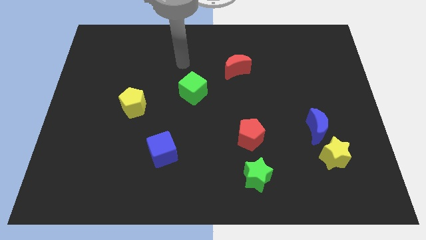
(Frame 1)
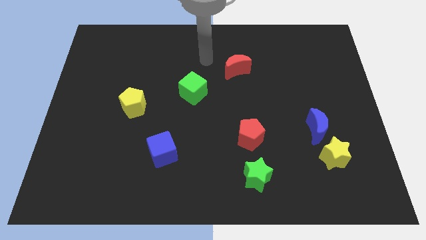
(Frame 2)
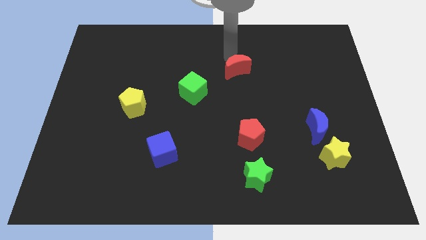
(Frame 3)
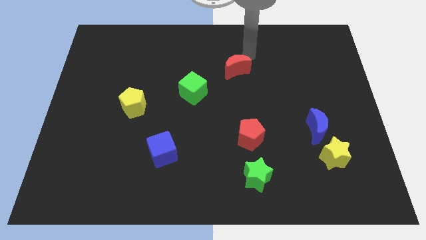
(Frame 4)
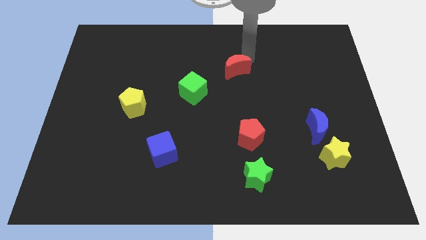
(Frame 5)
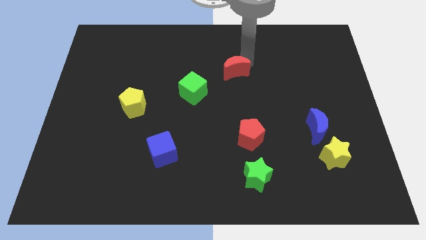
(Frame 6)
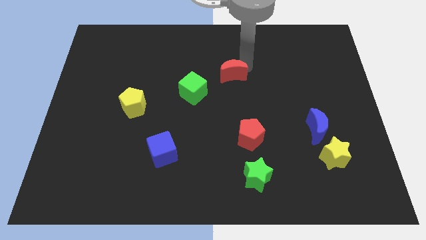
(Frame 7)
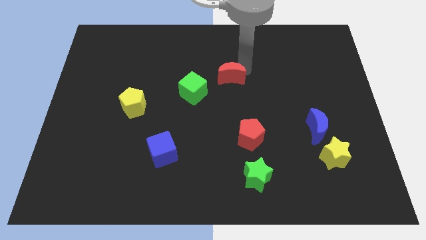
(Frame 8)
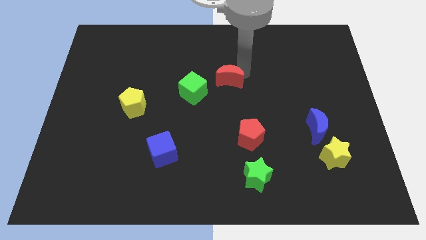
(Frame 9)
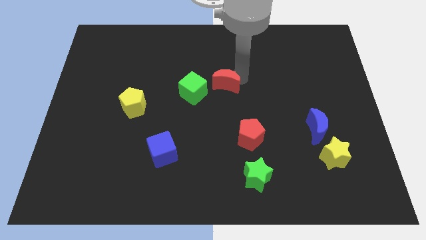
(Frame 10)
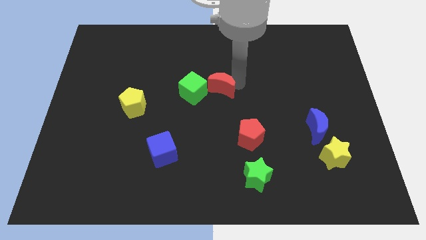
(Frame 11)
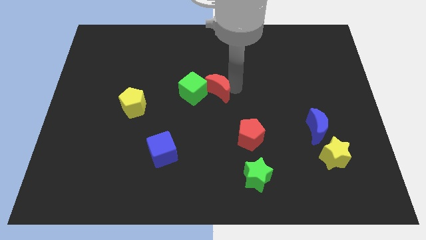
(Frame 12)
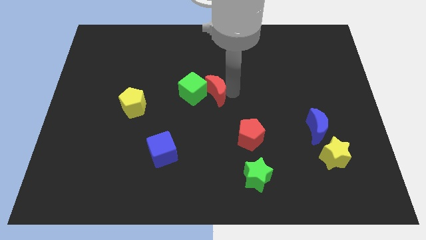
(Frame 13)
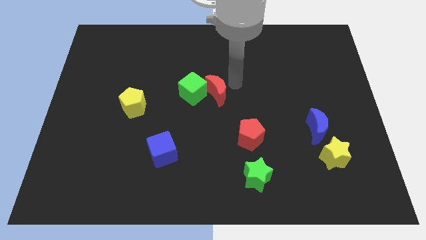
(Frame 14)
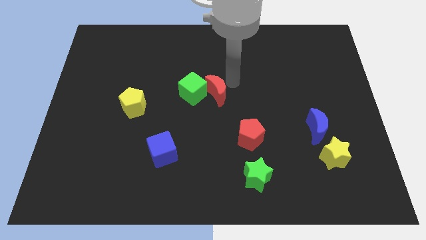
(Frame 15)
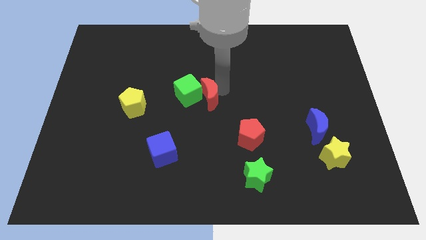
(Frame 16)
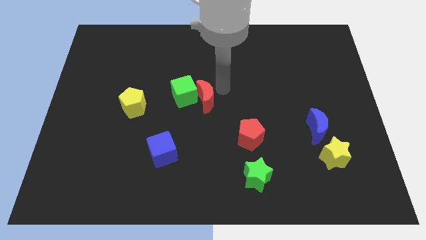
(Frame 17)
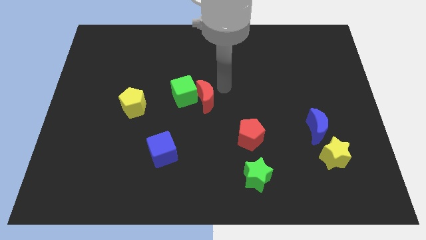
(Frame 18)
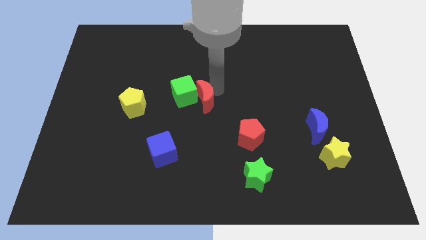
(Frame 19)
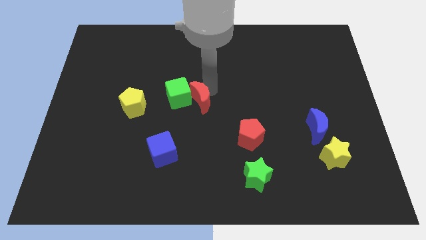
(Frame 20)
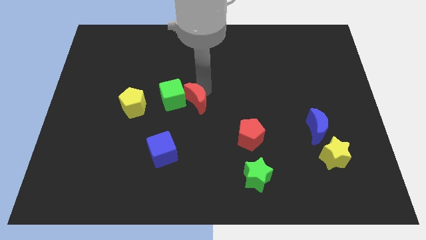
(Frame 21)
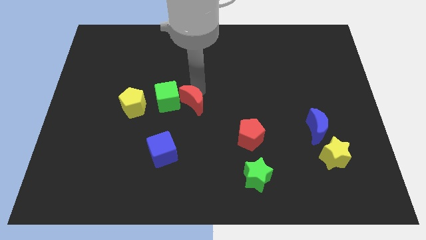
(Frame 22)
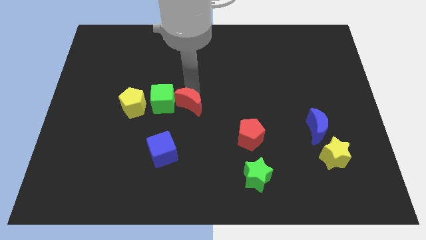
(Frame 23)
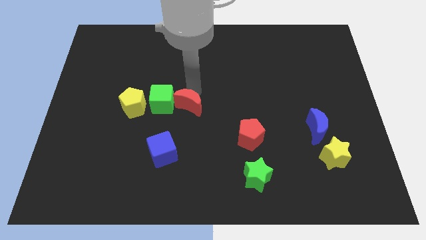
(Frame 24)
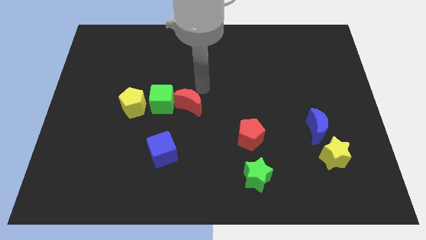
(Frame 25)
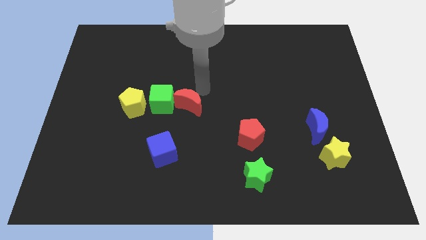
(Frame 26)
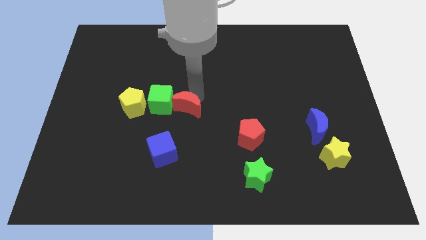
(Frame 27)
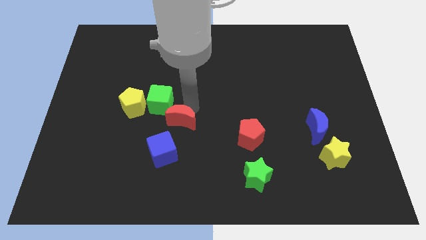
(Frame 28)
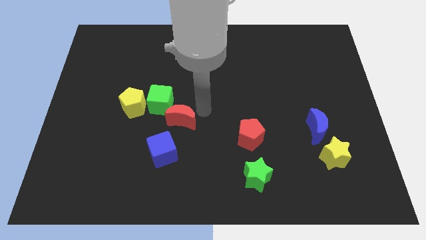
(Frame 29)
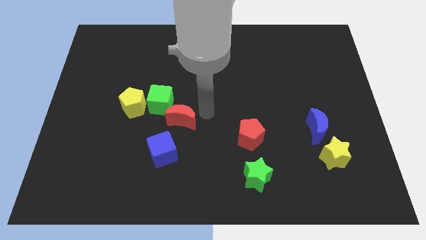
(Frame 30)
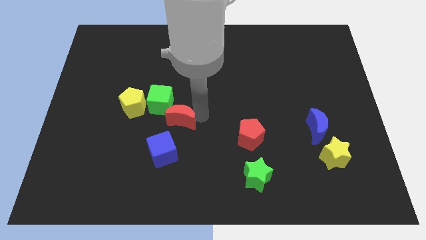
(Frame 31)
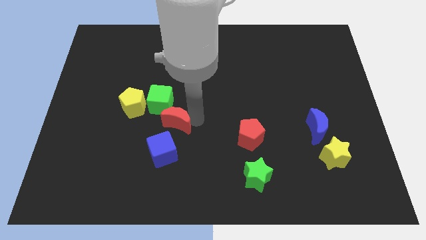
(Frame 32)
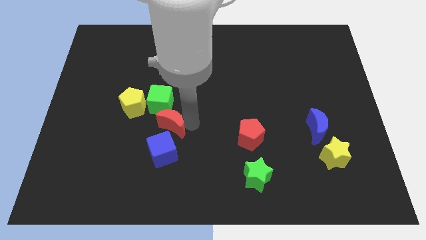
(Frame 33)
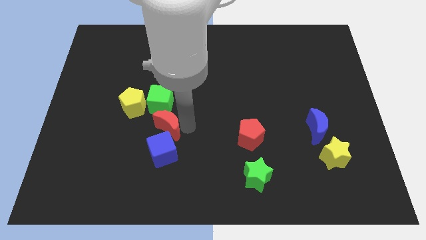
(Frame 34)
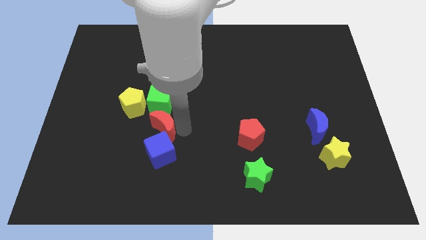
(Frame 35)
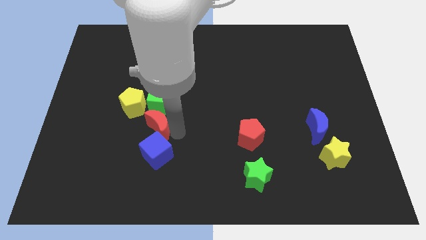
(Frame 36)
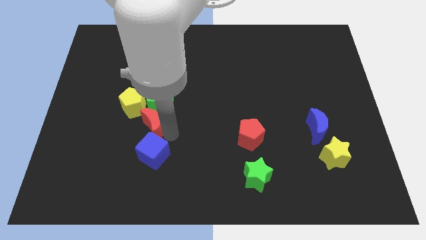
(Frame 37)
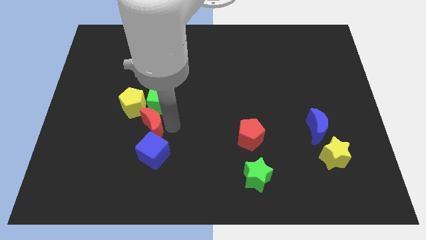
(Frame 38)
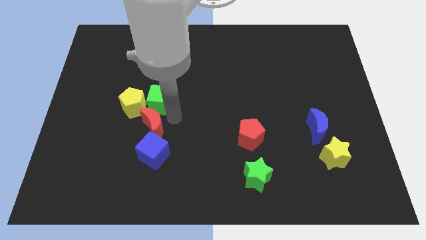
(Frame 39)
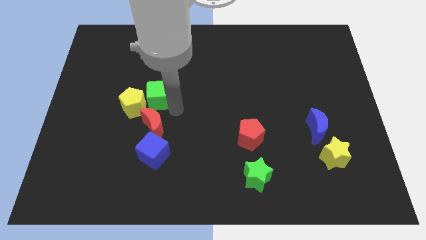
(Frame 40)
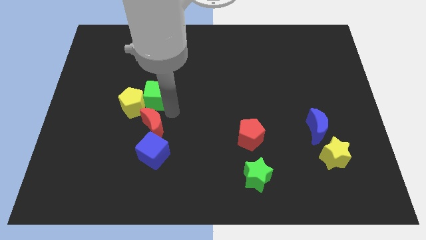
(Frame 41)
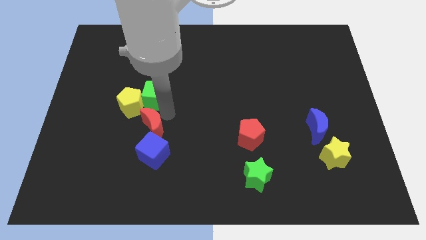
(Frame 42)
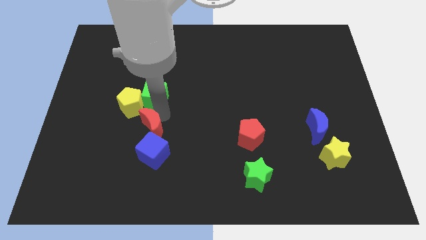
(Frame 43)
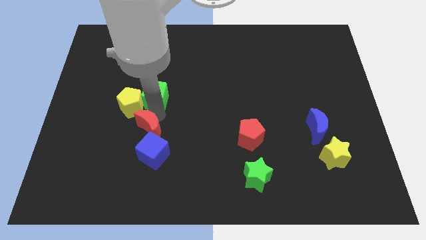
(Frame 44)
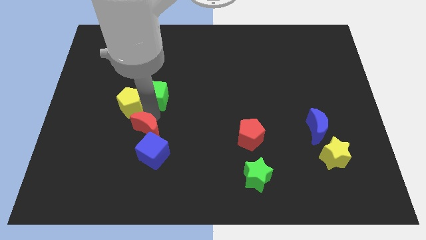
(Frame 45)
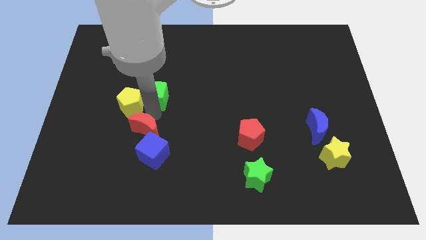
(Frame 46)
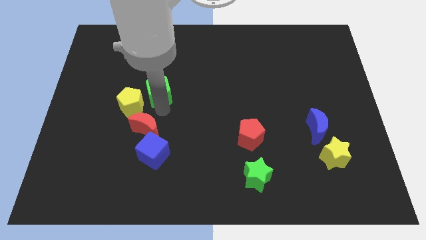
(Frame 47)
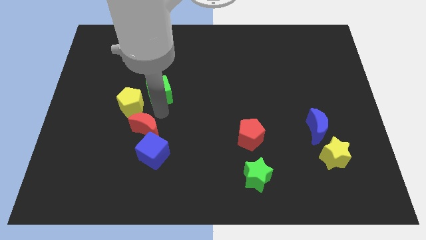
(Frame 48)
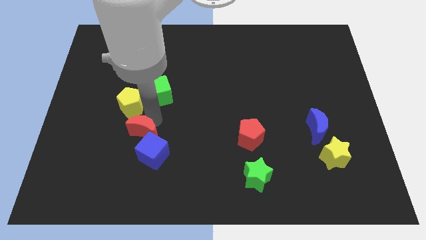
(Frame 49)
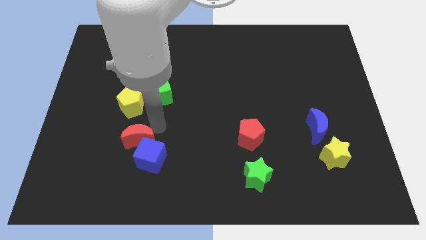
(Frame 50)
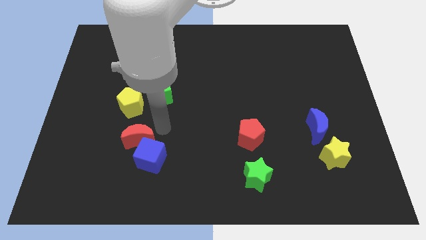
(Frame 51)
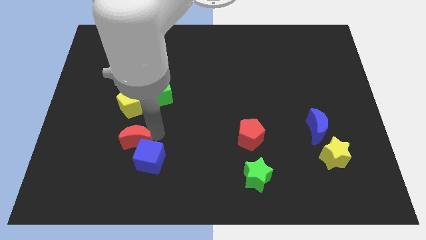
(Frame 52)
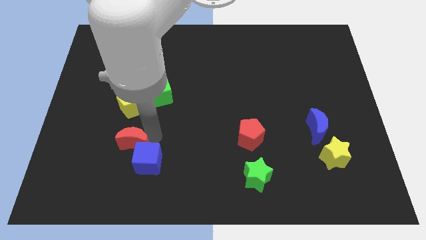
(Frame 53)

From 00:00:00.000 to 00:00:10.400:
push the red moon just left of the blue cube

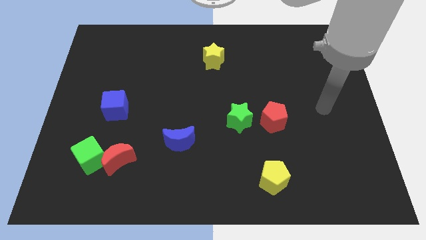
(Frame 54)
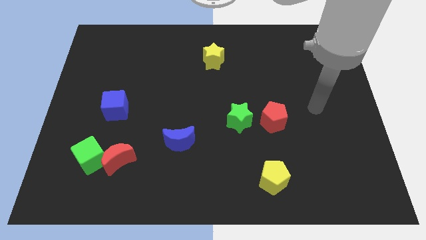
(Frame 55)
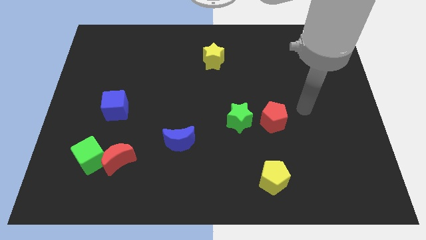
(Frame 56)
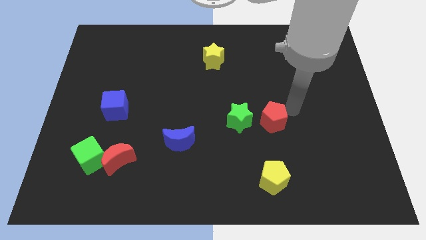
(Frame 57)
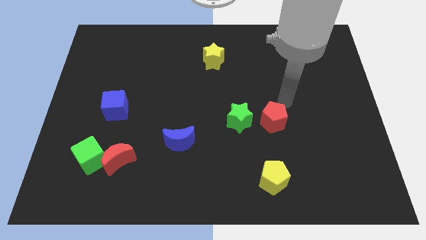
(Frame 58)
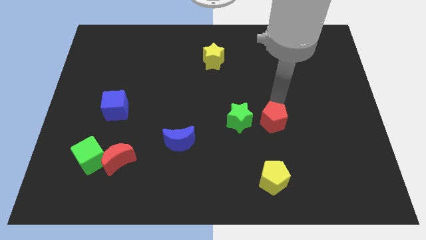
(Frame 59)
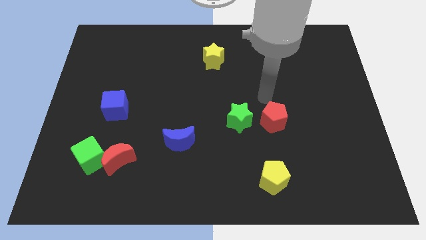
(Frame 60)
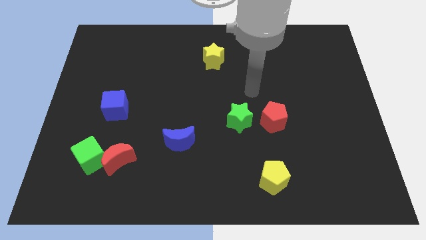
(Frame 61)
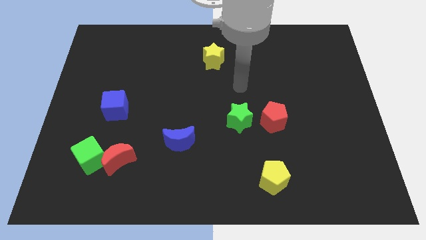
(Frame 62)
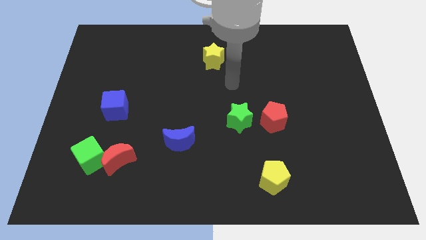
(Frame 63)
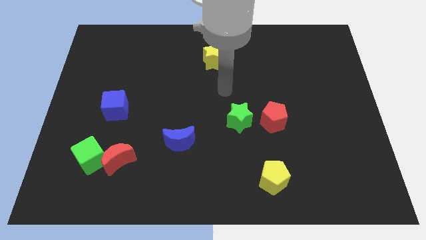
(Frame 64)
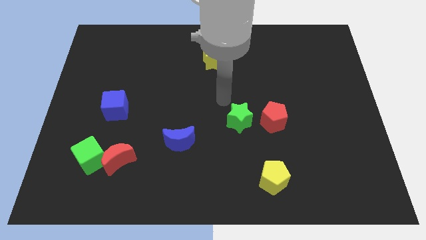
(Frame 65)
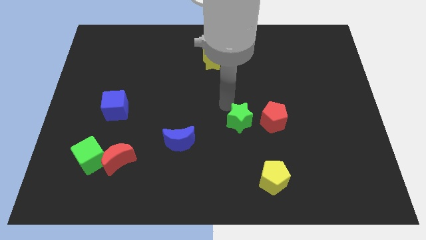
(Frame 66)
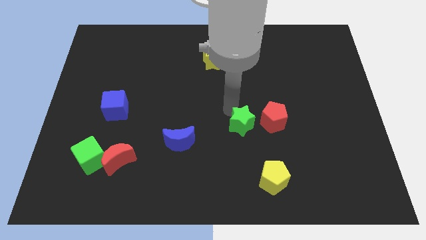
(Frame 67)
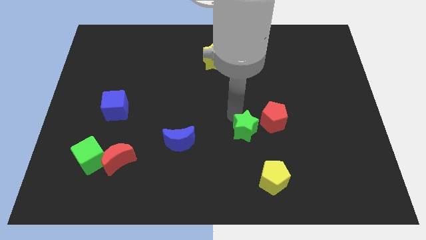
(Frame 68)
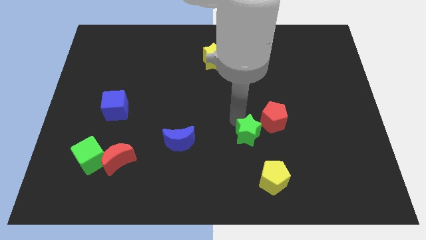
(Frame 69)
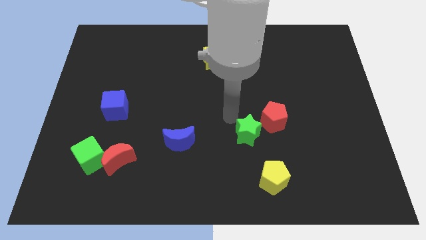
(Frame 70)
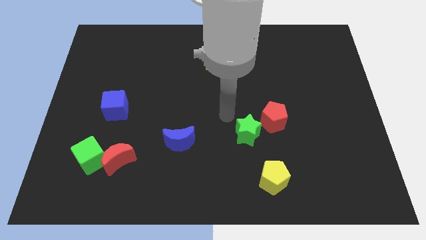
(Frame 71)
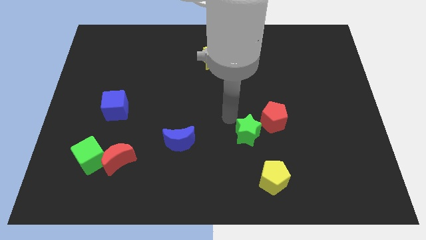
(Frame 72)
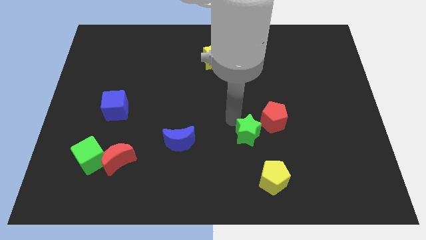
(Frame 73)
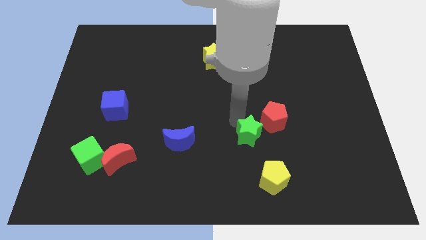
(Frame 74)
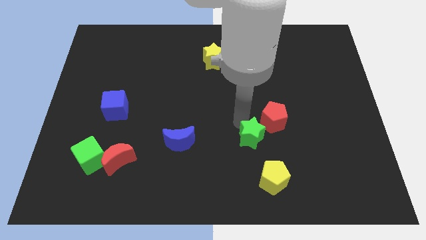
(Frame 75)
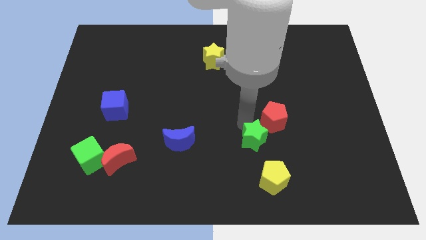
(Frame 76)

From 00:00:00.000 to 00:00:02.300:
move the green star to the bottom side of the red pentagon
